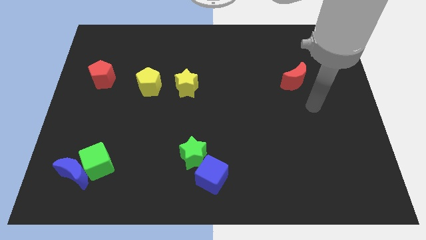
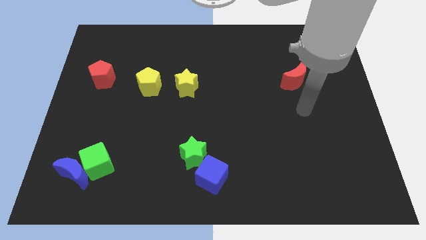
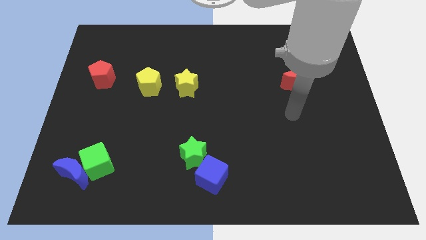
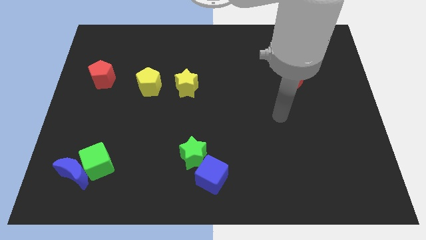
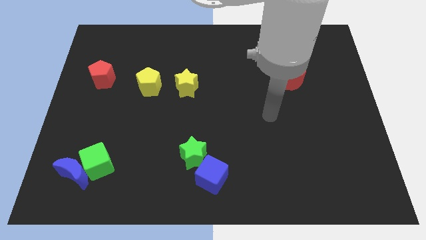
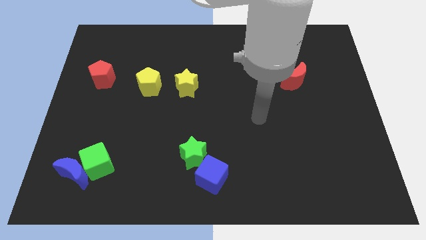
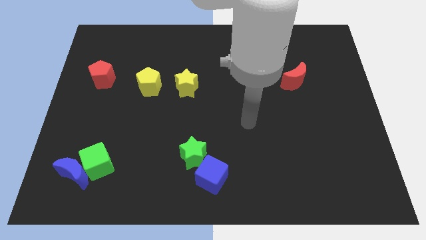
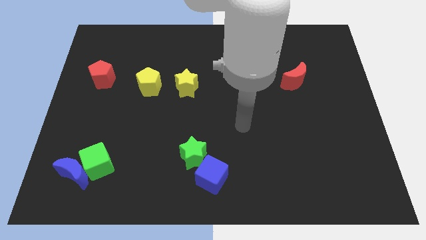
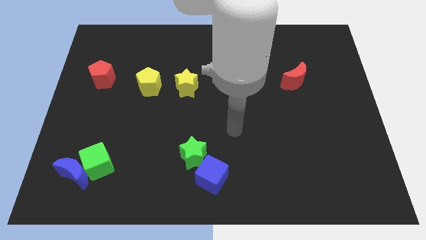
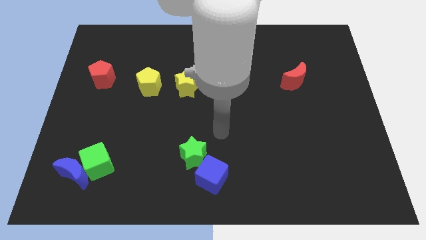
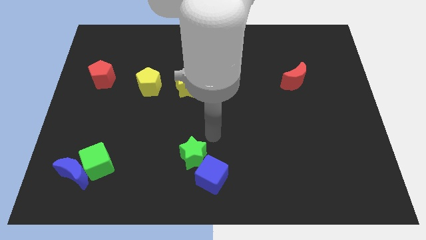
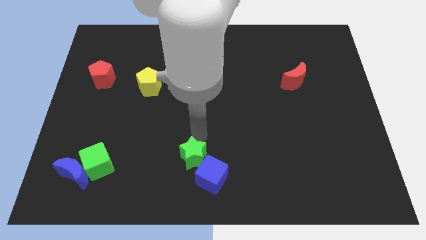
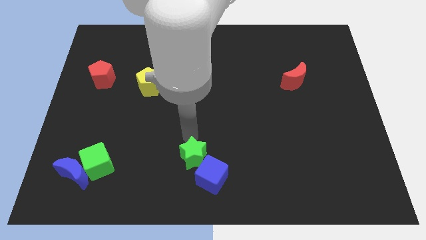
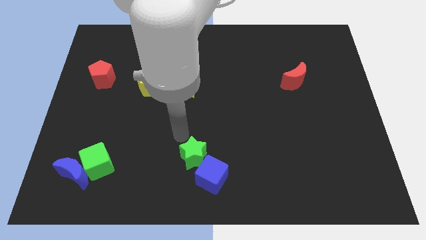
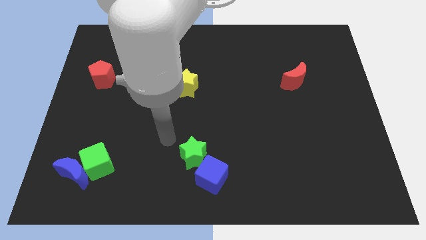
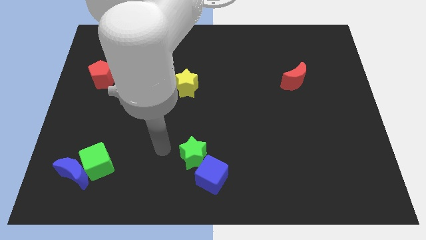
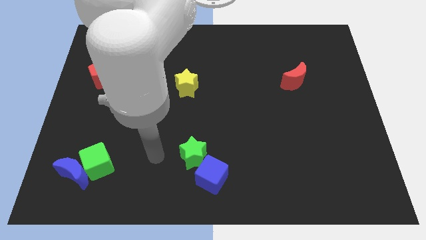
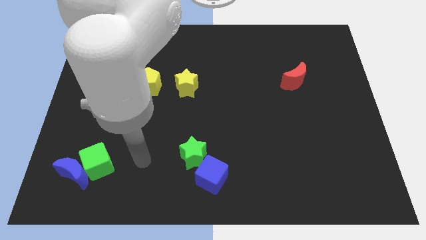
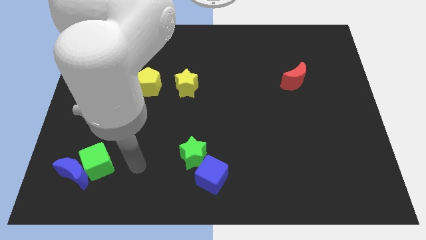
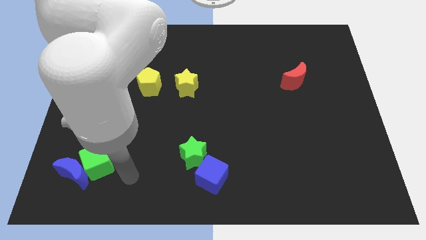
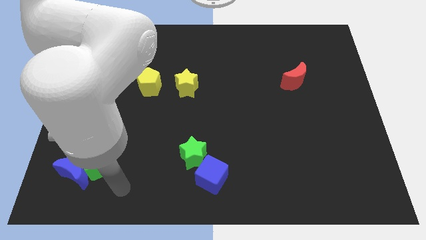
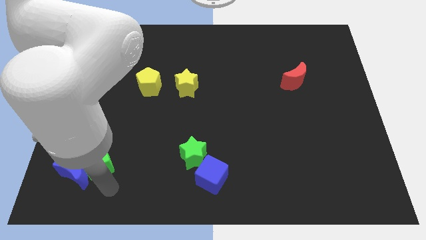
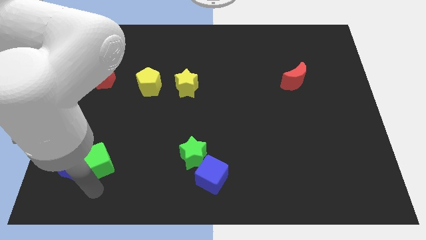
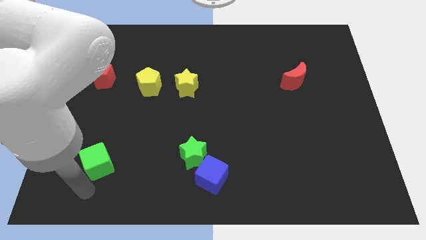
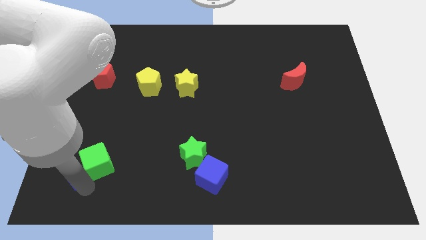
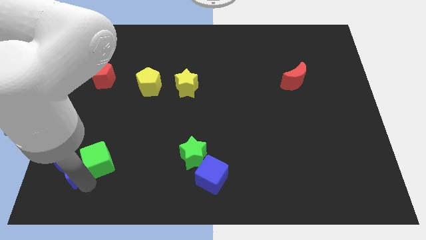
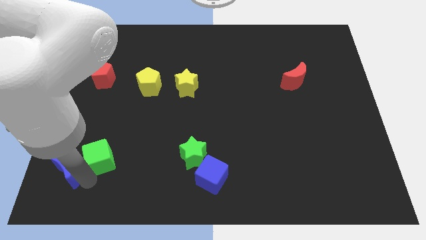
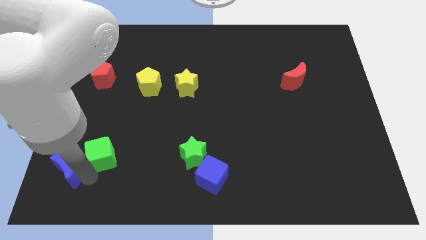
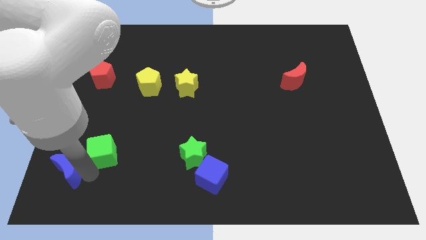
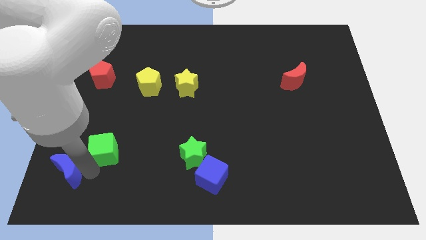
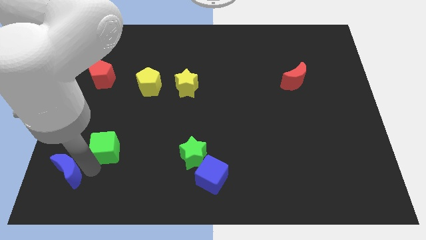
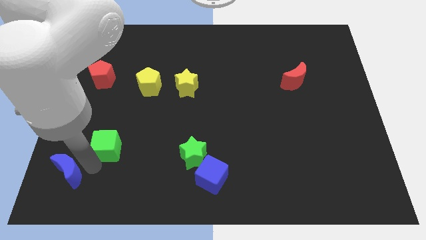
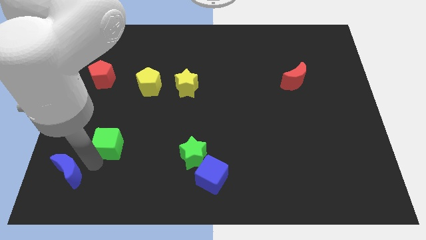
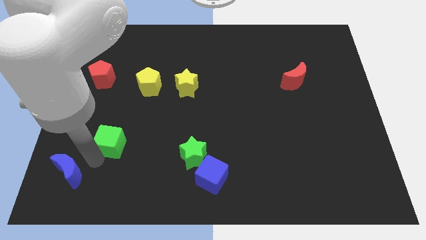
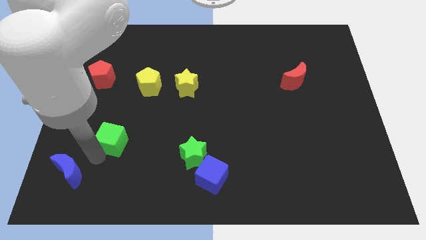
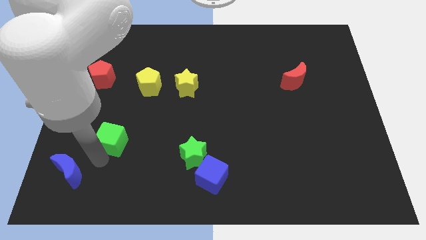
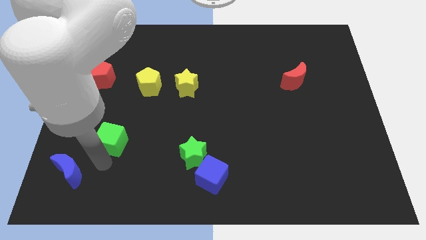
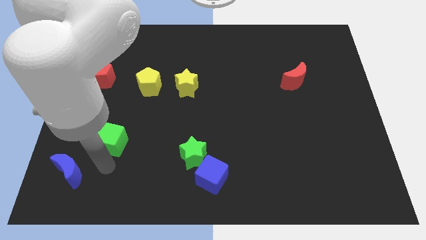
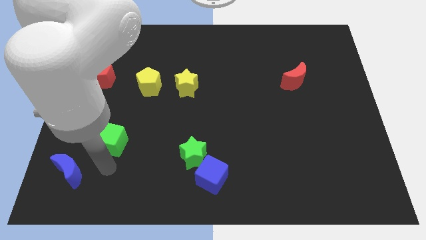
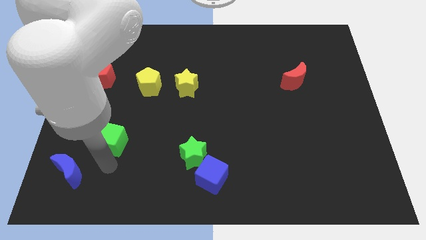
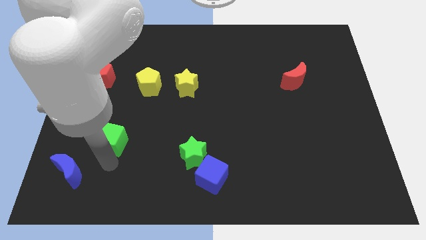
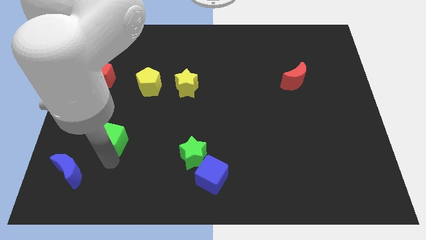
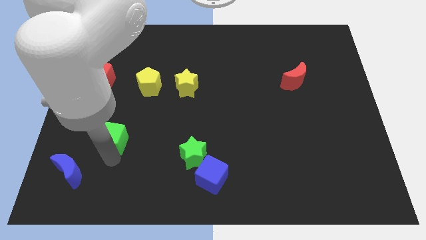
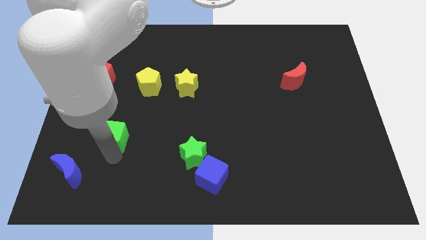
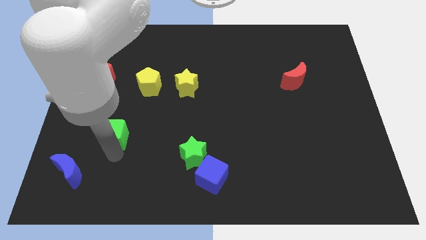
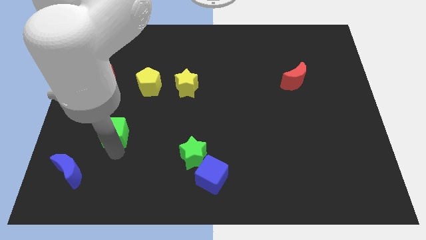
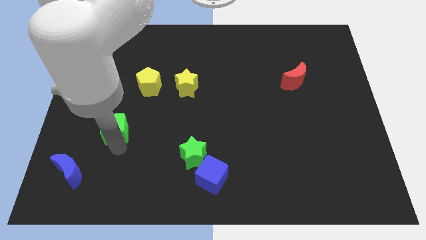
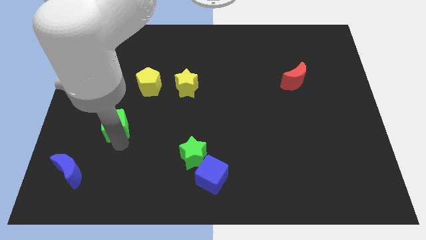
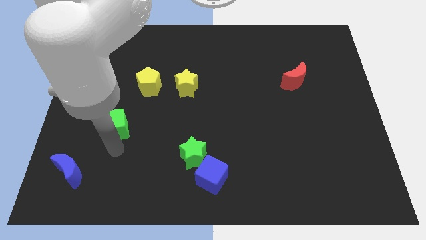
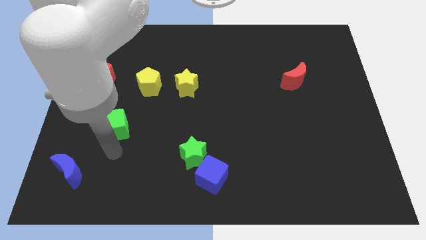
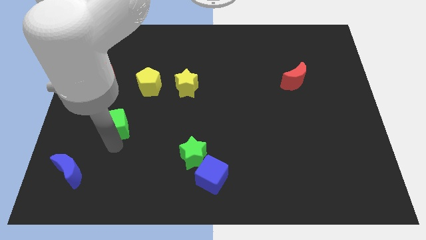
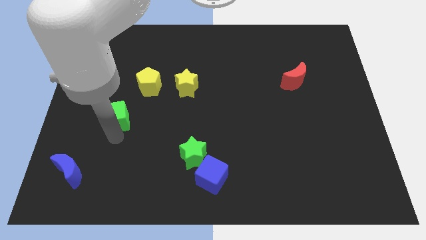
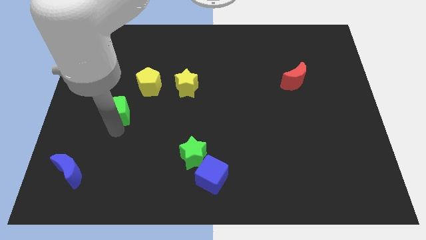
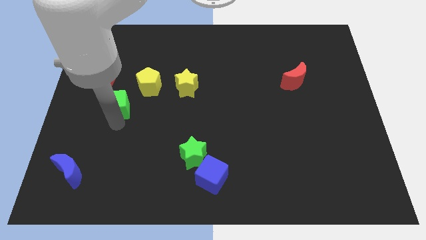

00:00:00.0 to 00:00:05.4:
put the green cube diagonally down and to the right of the red pentagon

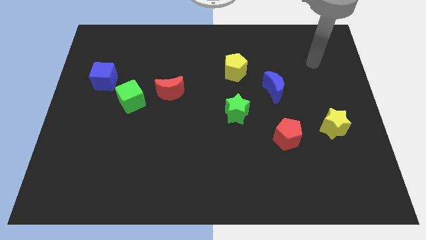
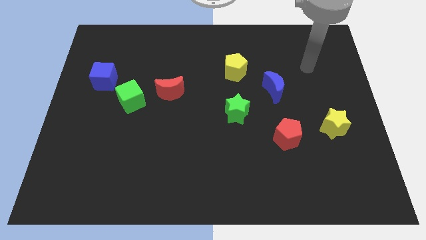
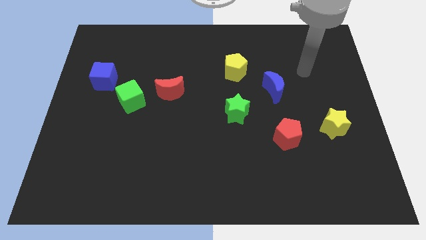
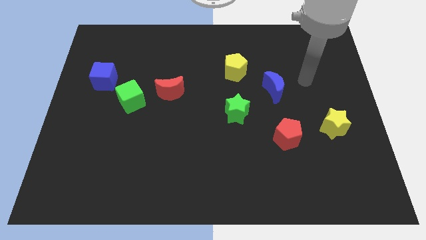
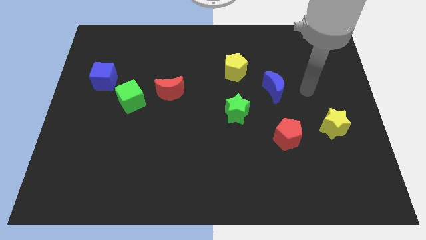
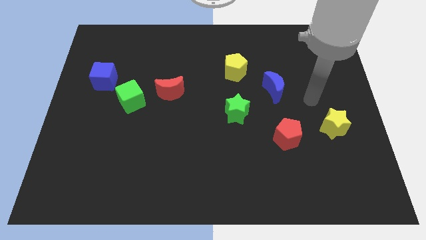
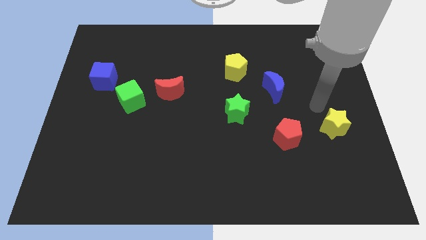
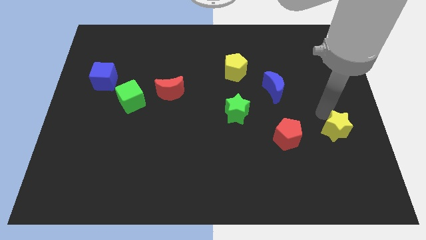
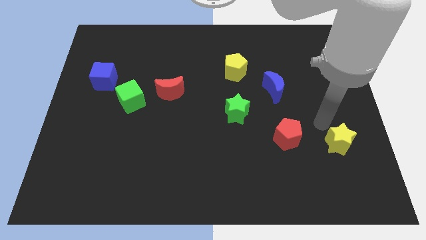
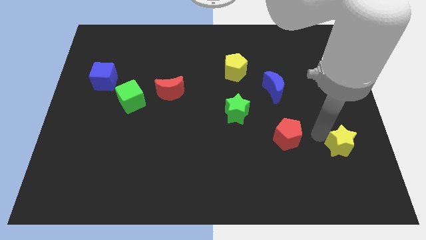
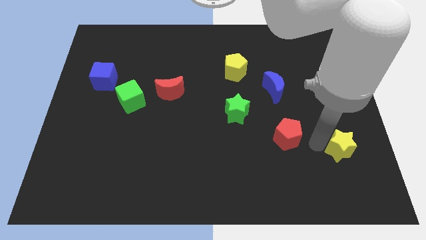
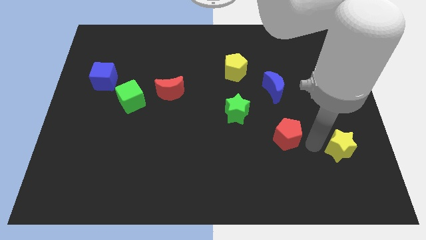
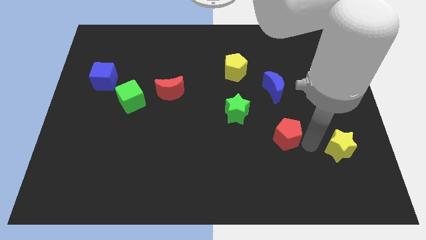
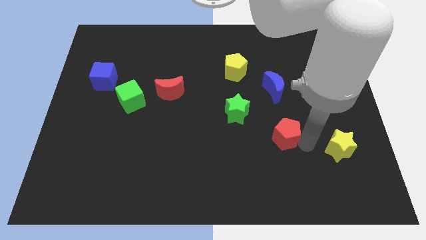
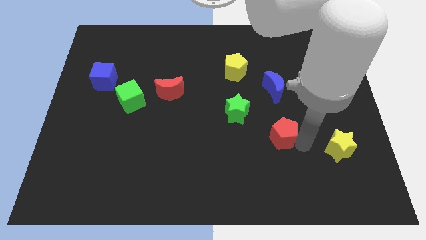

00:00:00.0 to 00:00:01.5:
move the red pentagon to the bottom right side of the green star

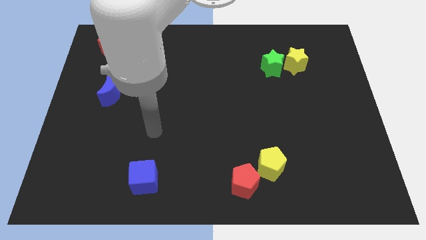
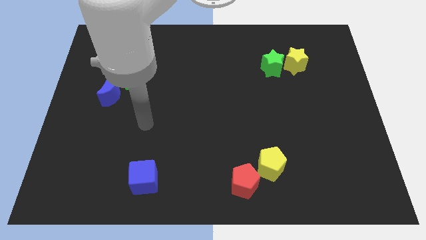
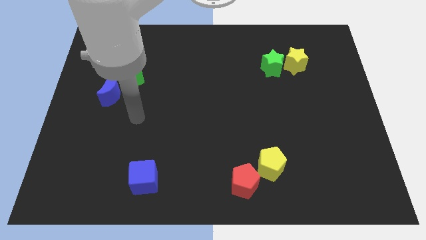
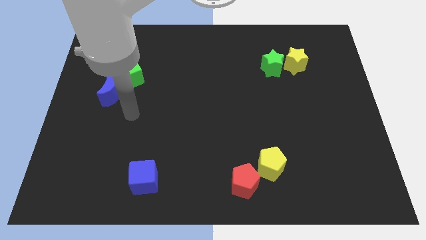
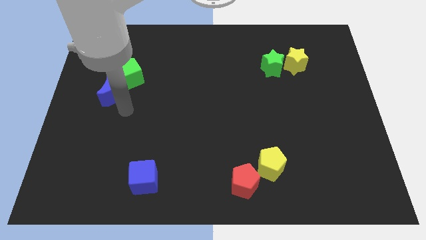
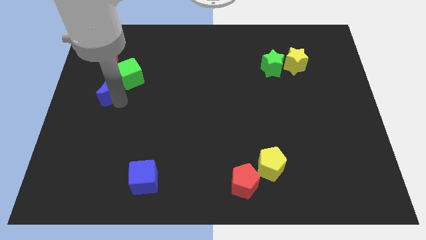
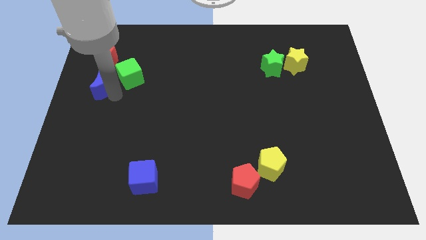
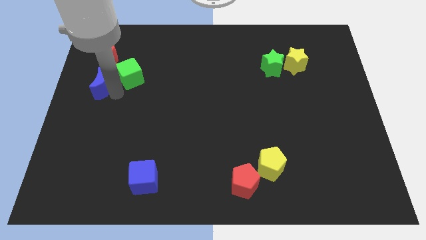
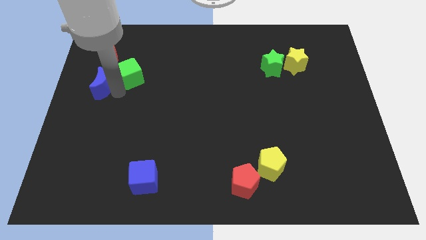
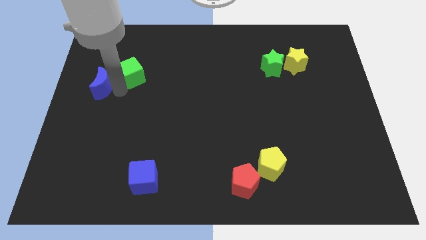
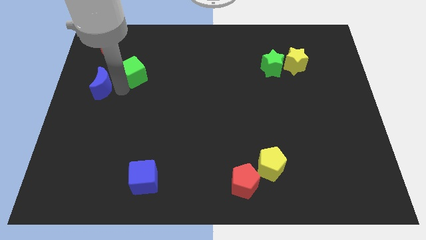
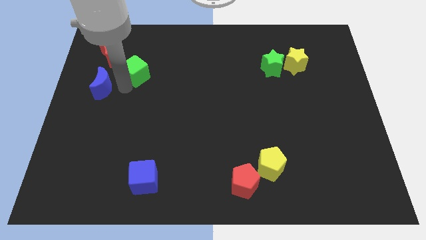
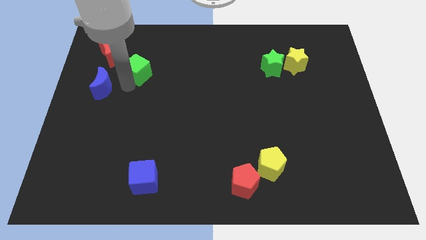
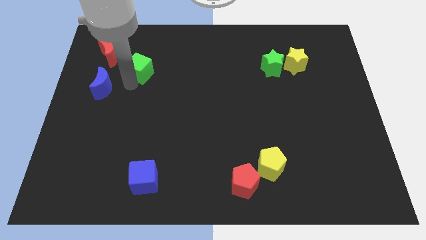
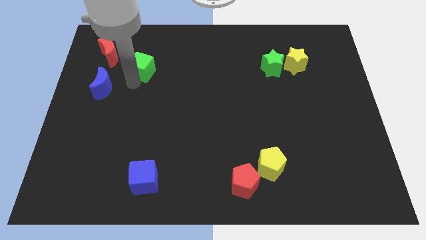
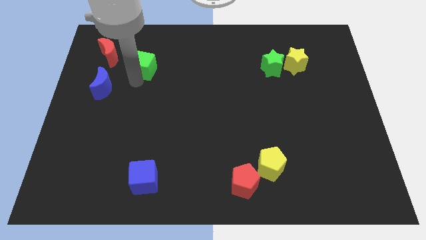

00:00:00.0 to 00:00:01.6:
put the green cube to the right side of the red moon
